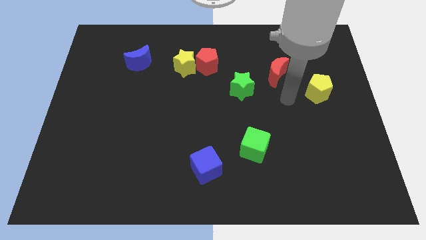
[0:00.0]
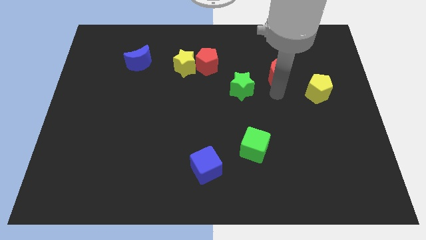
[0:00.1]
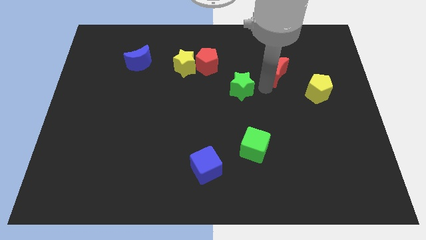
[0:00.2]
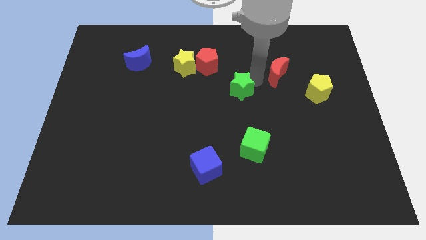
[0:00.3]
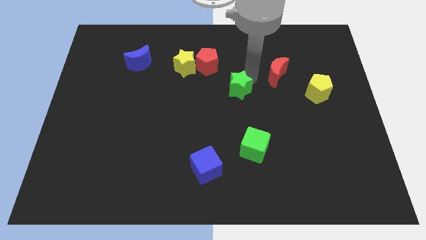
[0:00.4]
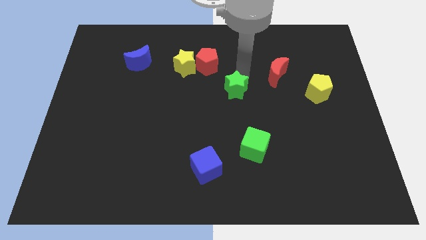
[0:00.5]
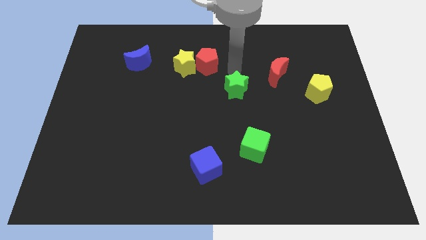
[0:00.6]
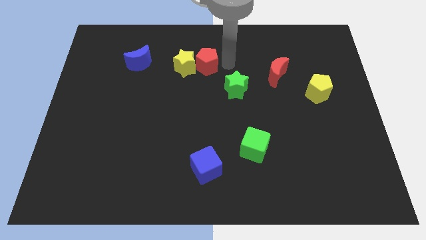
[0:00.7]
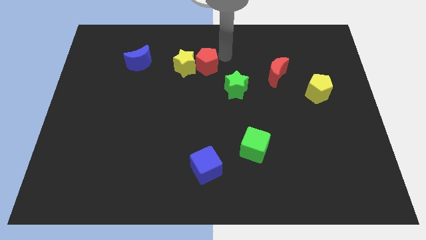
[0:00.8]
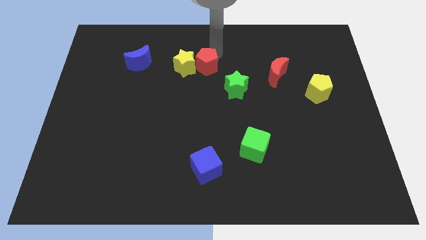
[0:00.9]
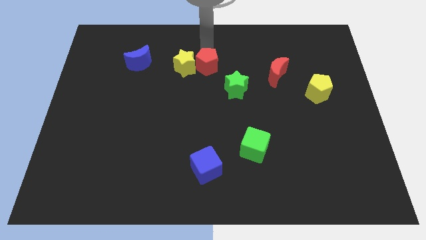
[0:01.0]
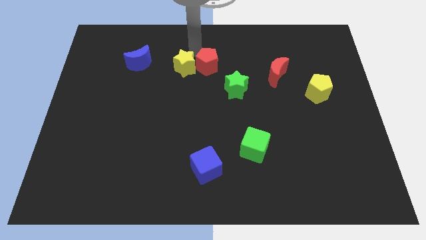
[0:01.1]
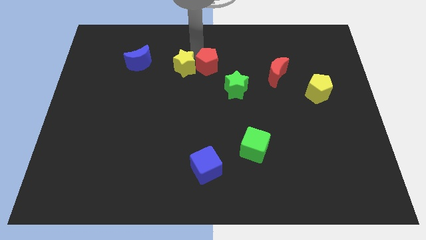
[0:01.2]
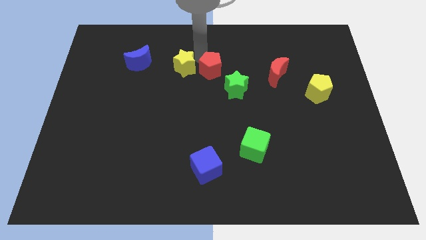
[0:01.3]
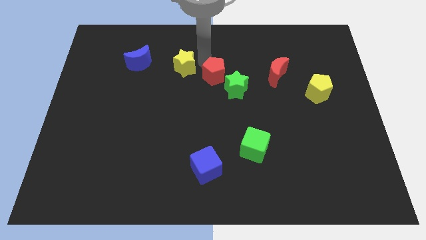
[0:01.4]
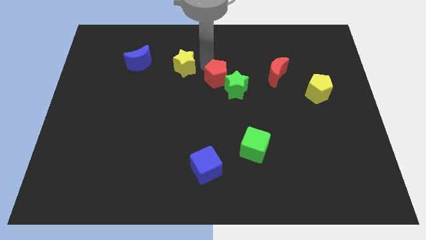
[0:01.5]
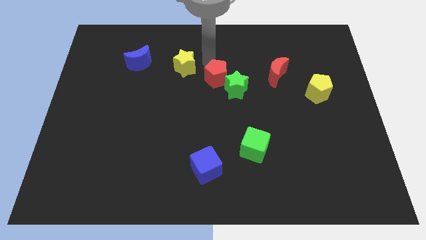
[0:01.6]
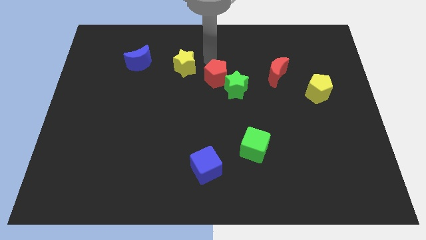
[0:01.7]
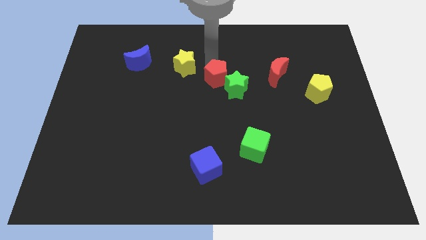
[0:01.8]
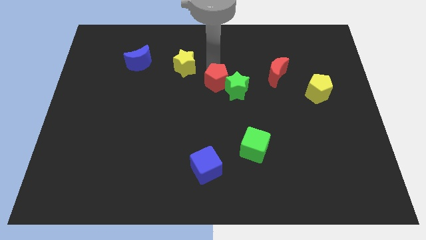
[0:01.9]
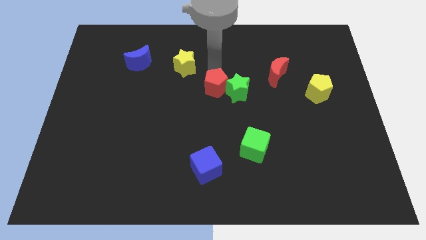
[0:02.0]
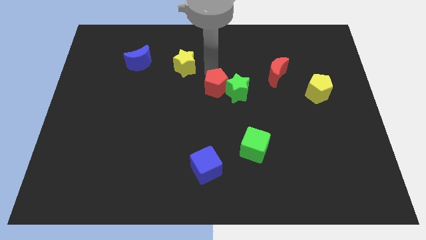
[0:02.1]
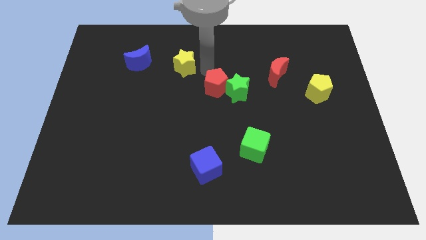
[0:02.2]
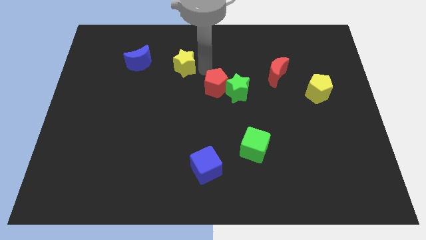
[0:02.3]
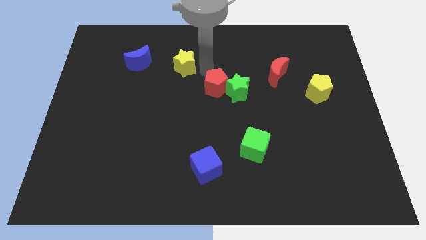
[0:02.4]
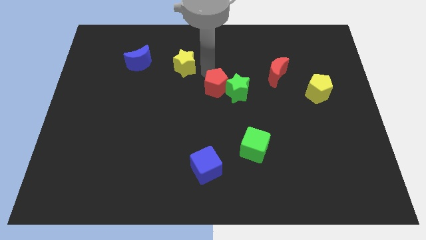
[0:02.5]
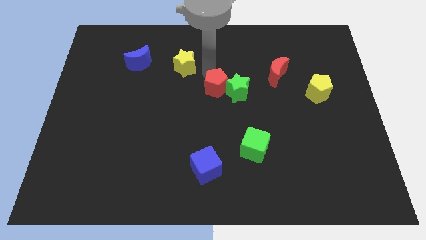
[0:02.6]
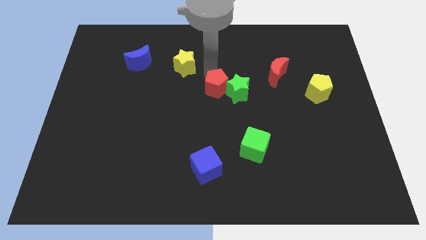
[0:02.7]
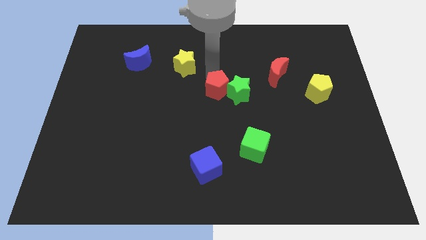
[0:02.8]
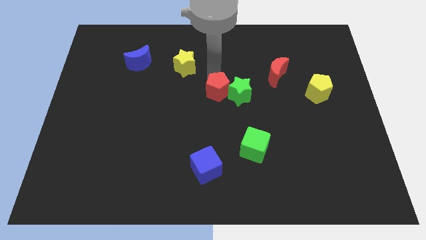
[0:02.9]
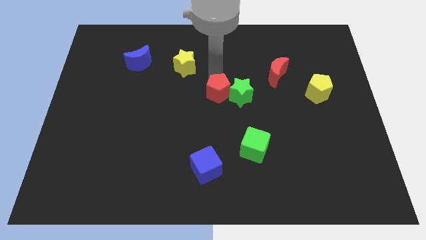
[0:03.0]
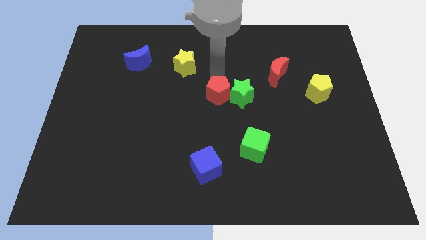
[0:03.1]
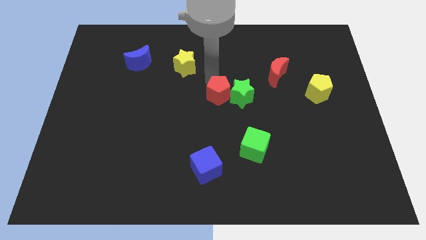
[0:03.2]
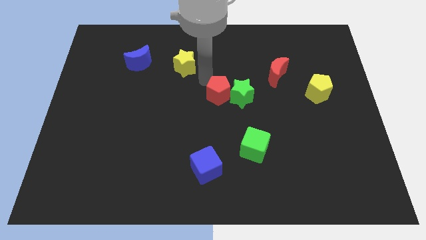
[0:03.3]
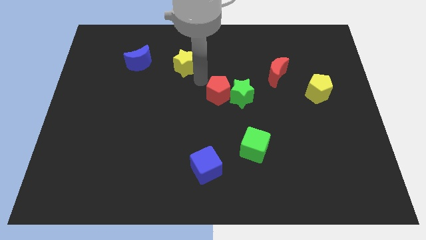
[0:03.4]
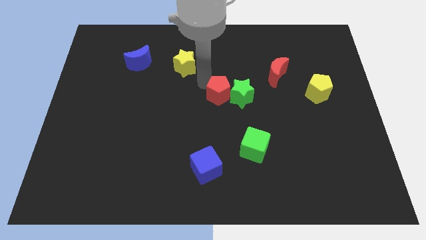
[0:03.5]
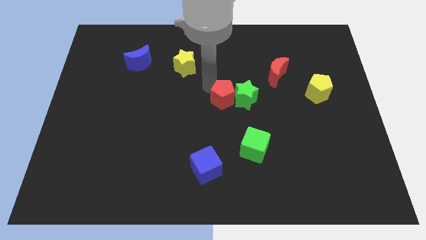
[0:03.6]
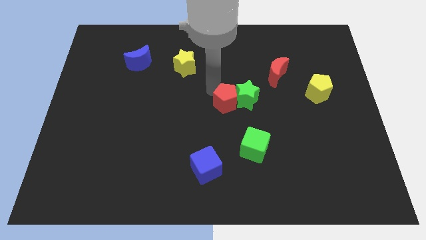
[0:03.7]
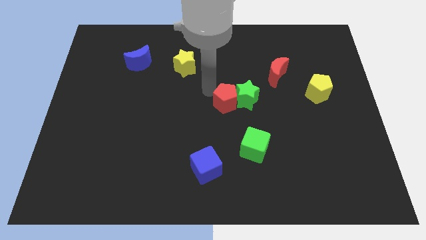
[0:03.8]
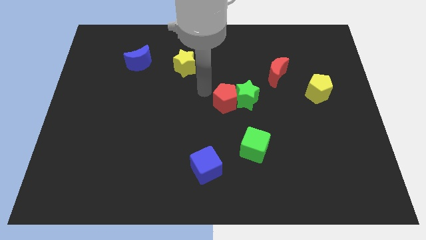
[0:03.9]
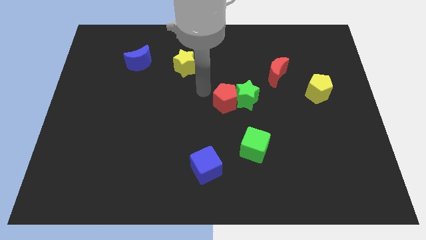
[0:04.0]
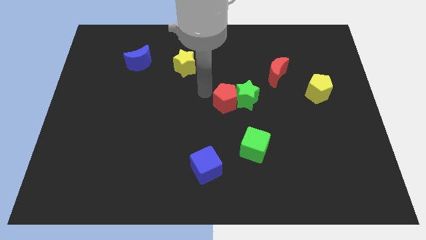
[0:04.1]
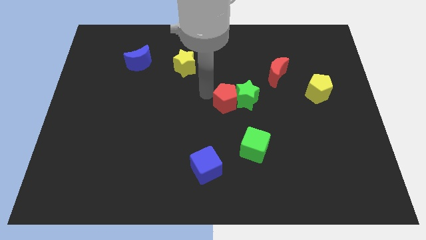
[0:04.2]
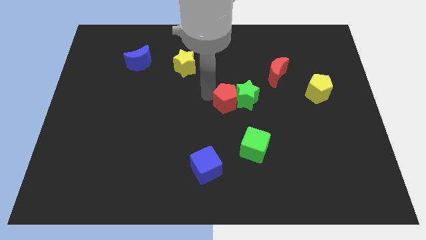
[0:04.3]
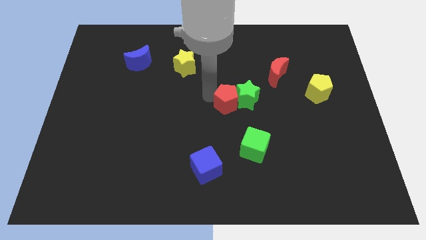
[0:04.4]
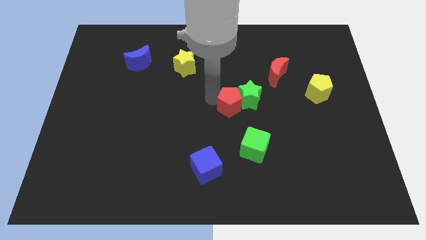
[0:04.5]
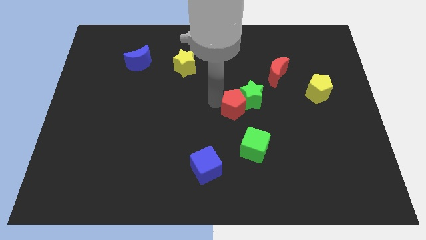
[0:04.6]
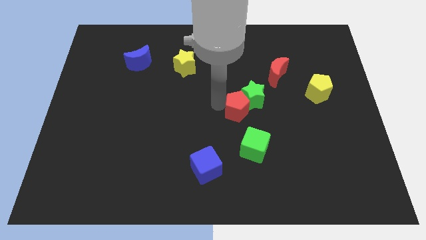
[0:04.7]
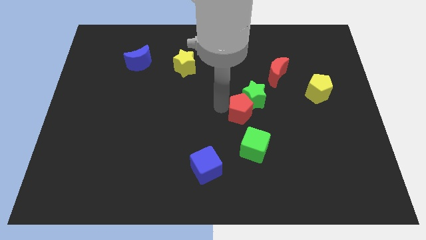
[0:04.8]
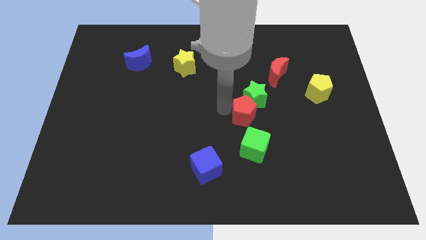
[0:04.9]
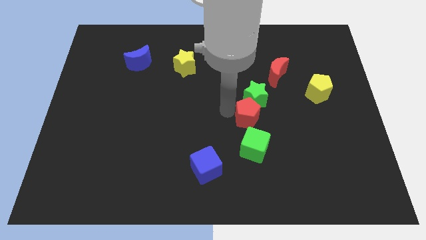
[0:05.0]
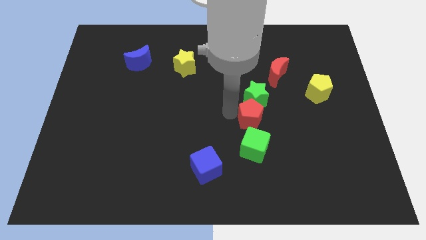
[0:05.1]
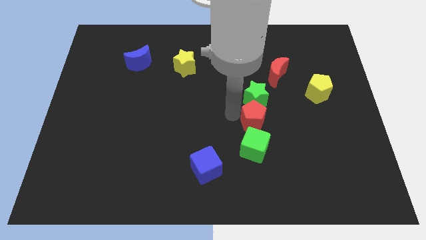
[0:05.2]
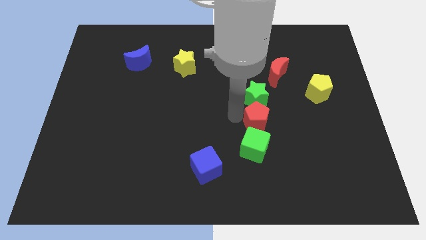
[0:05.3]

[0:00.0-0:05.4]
push the red pentagon to the bottom right side of the green star

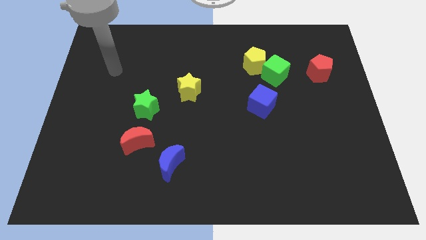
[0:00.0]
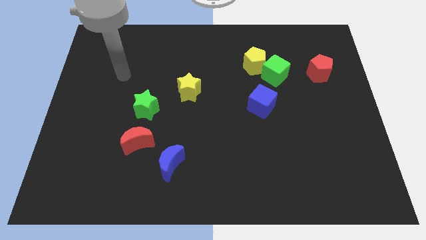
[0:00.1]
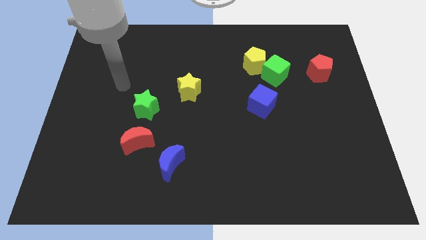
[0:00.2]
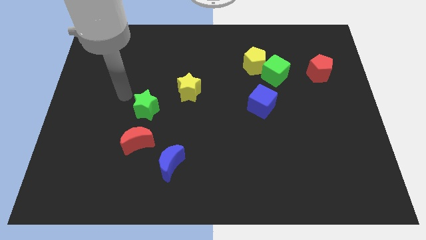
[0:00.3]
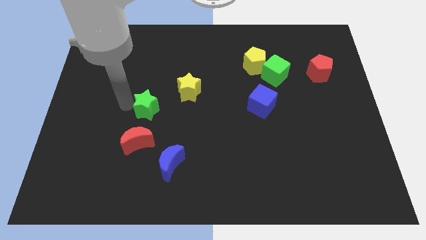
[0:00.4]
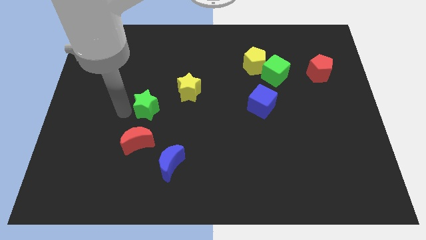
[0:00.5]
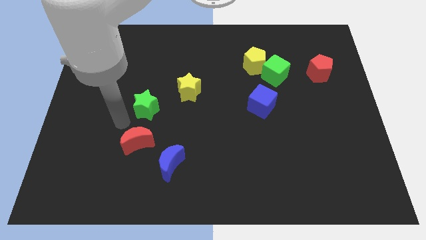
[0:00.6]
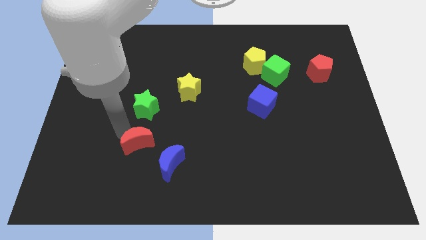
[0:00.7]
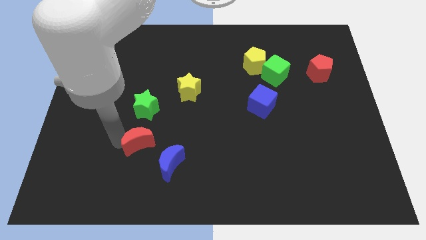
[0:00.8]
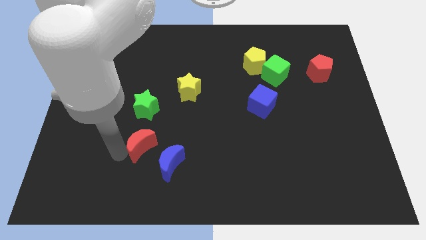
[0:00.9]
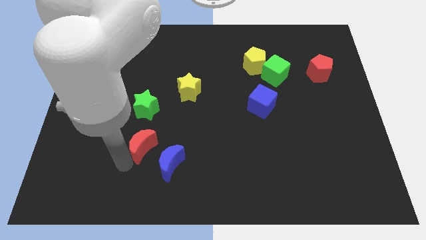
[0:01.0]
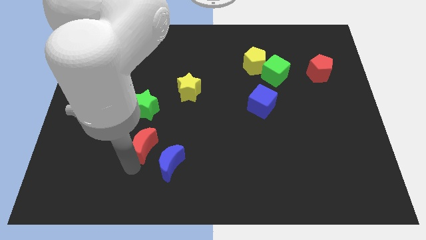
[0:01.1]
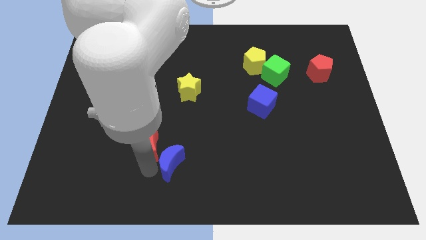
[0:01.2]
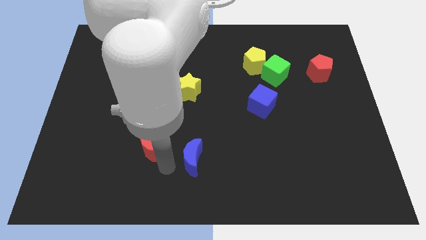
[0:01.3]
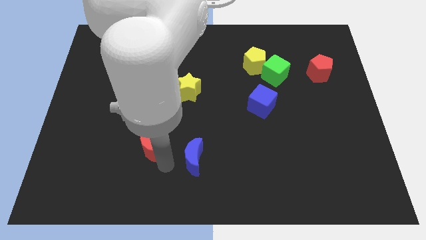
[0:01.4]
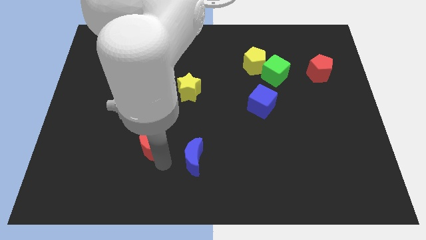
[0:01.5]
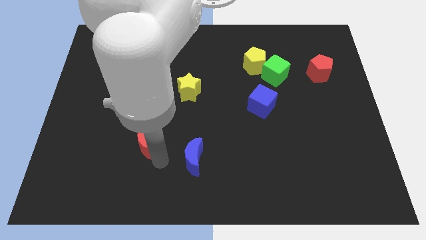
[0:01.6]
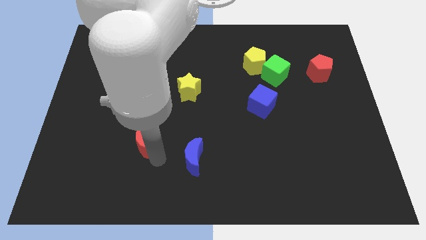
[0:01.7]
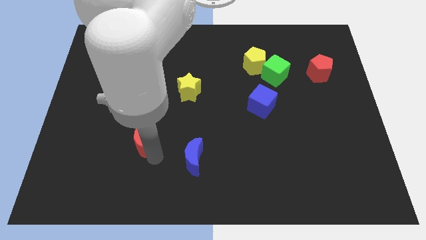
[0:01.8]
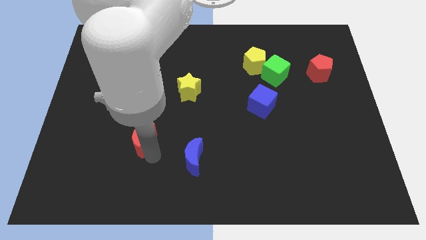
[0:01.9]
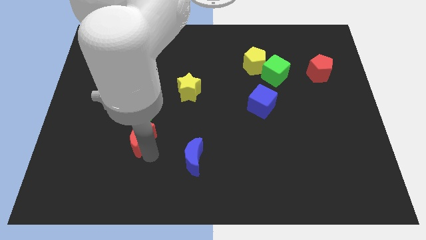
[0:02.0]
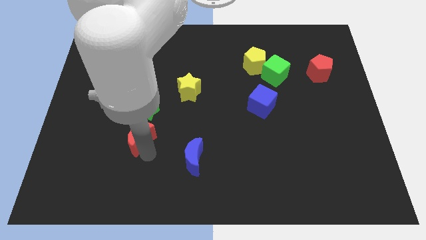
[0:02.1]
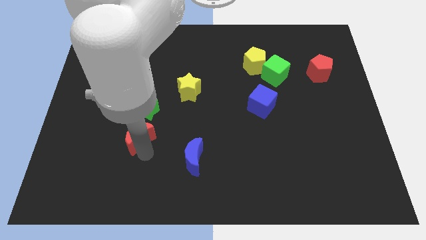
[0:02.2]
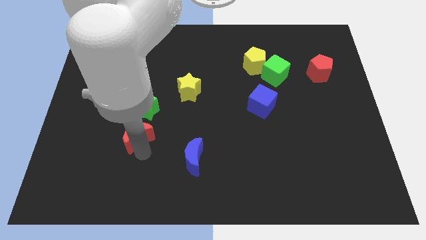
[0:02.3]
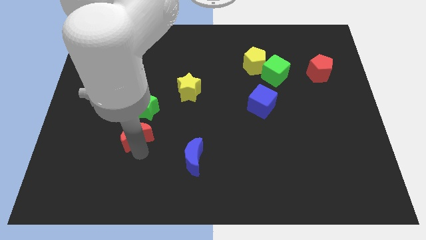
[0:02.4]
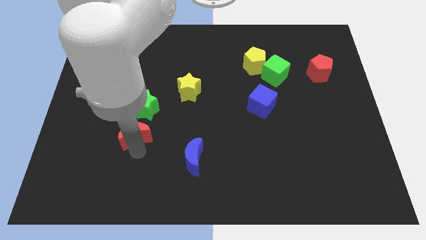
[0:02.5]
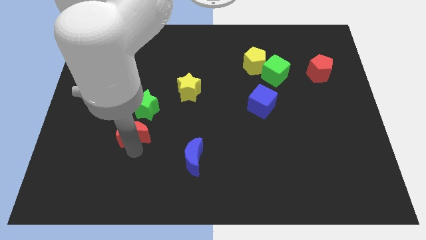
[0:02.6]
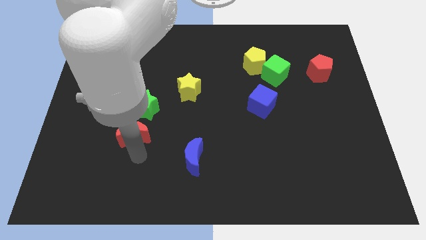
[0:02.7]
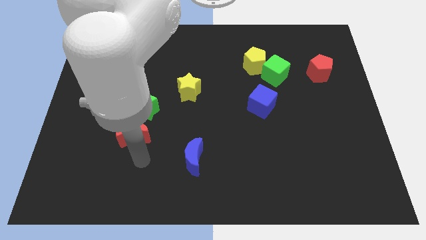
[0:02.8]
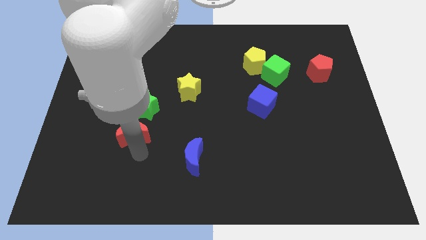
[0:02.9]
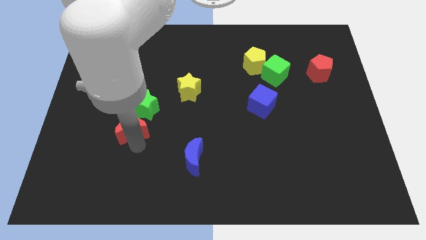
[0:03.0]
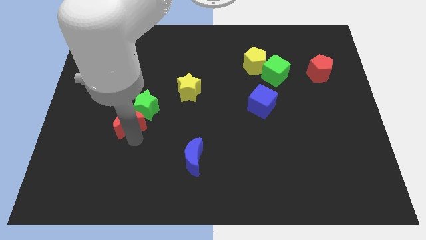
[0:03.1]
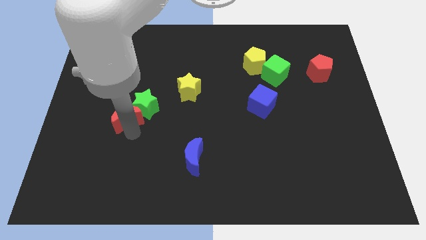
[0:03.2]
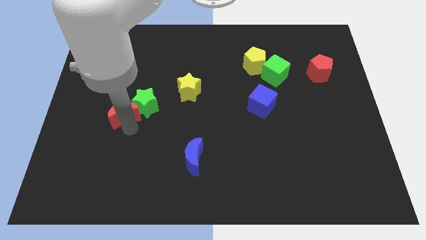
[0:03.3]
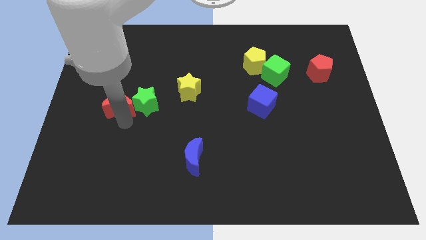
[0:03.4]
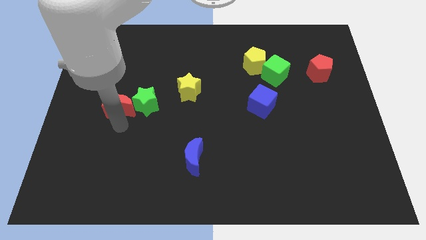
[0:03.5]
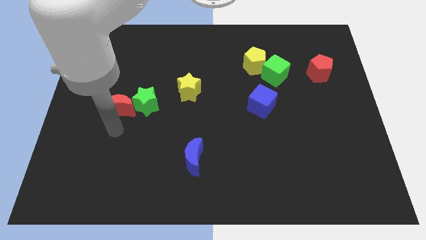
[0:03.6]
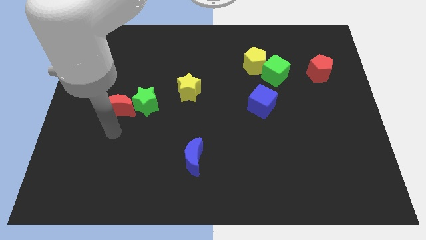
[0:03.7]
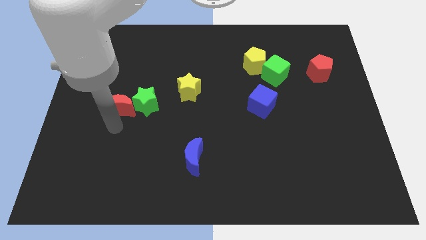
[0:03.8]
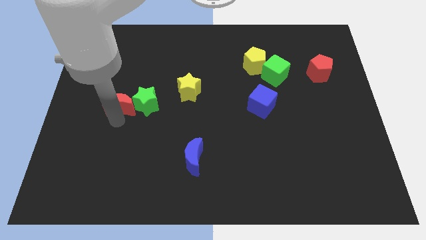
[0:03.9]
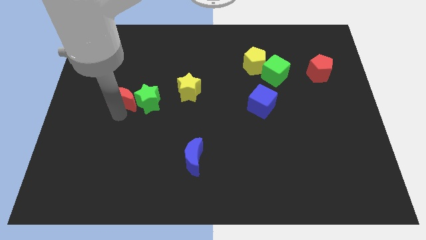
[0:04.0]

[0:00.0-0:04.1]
push the red moon to the top left side of the green star
